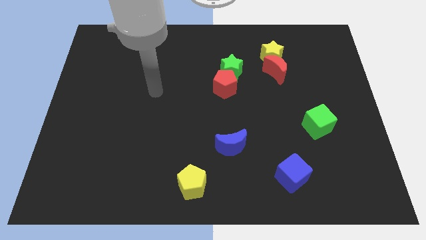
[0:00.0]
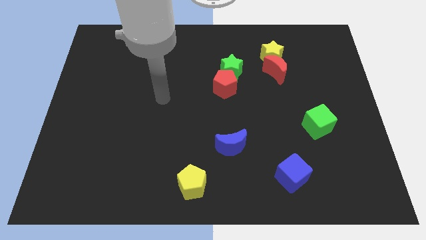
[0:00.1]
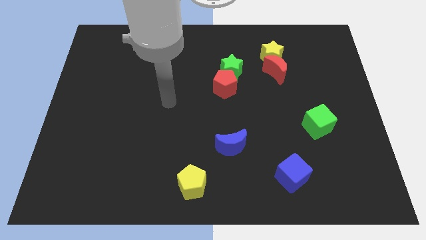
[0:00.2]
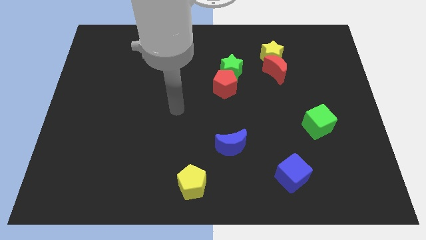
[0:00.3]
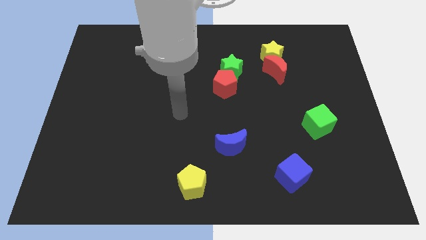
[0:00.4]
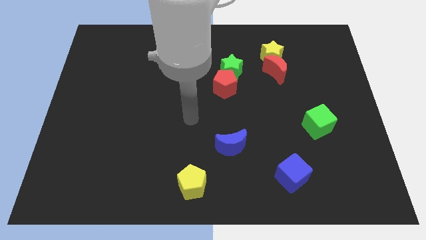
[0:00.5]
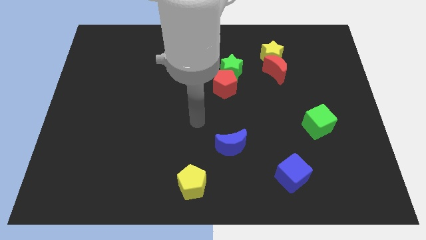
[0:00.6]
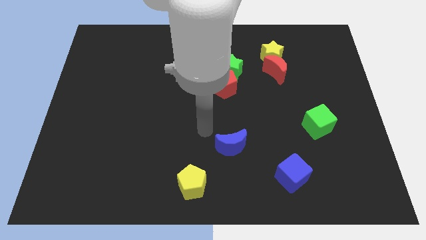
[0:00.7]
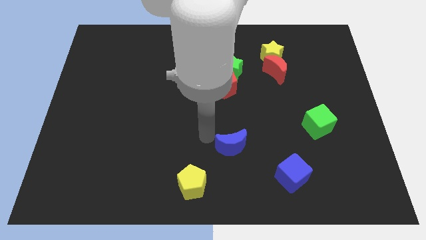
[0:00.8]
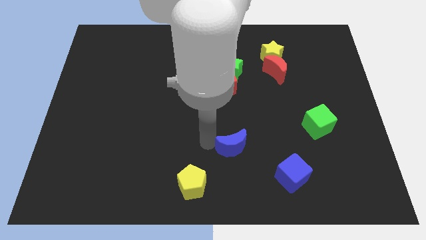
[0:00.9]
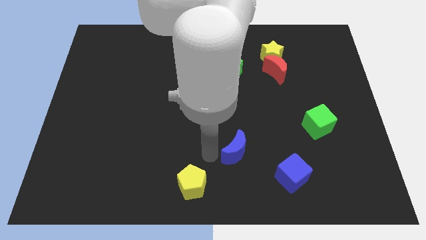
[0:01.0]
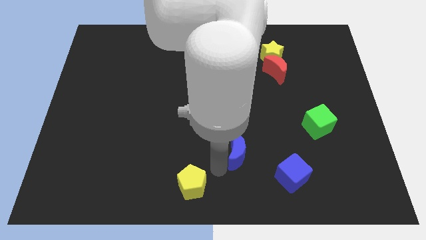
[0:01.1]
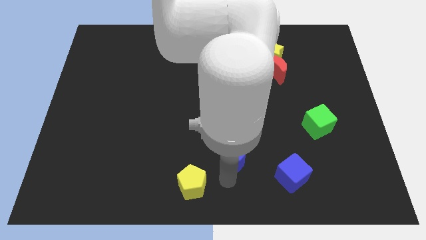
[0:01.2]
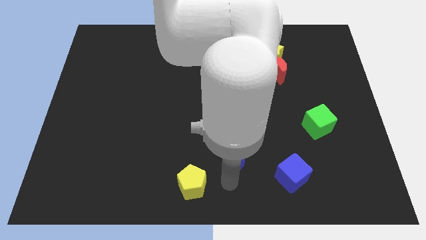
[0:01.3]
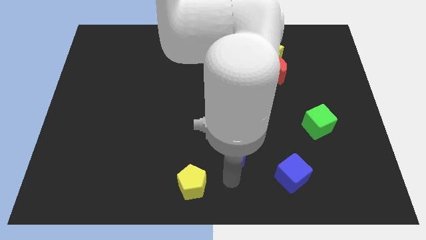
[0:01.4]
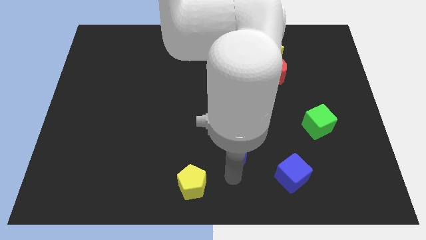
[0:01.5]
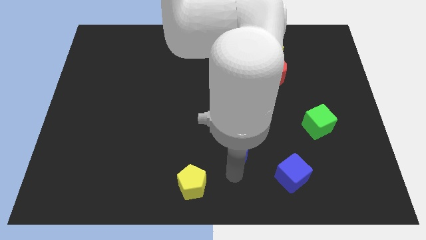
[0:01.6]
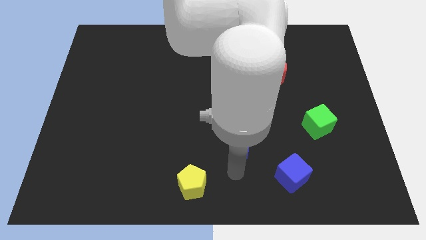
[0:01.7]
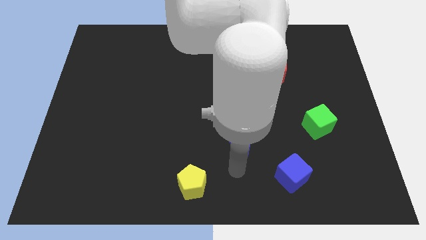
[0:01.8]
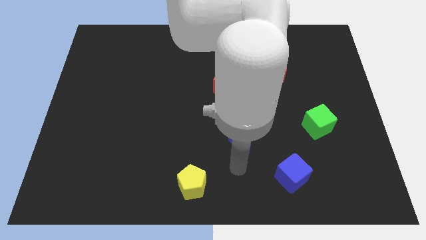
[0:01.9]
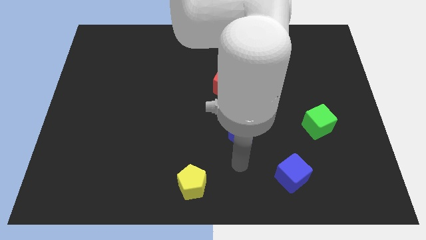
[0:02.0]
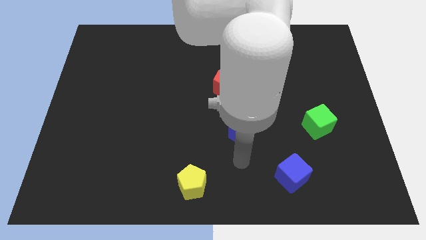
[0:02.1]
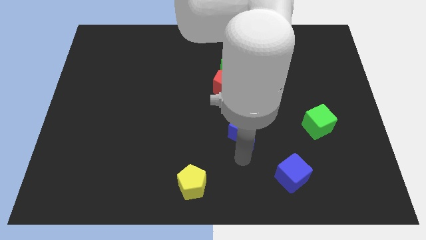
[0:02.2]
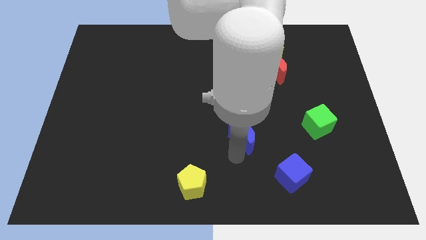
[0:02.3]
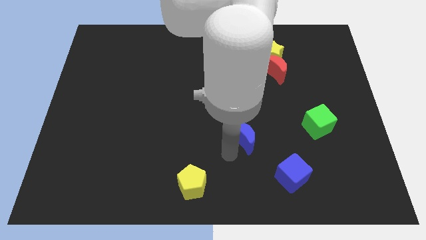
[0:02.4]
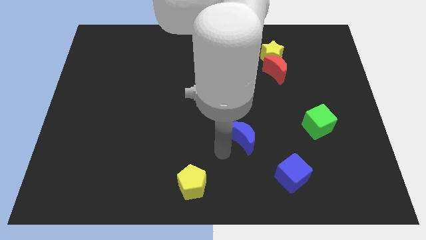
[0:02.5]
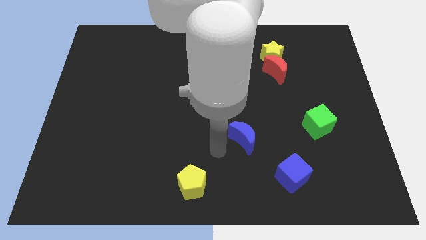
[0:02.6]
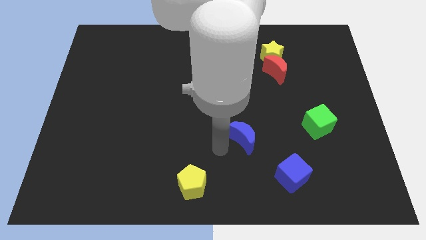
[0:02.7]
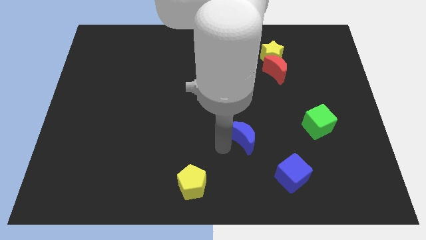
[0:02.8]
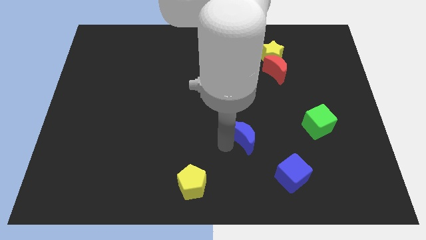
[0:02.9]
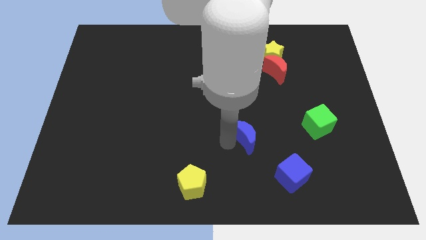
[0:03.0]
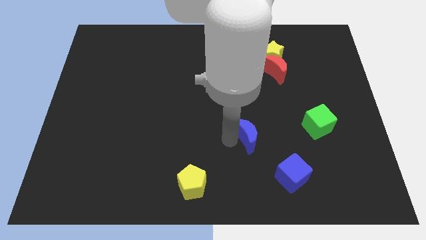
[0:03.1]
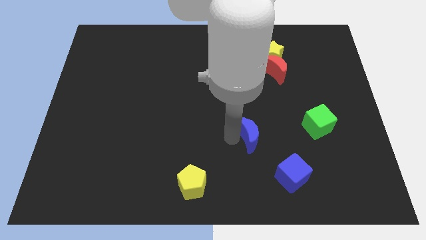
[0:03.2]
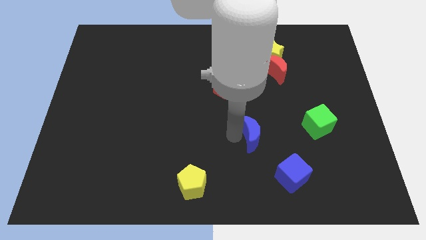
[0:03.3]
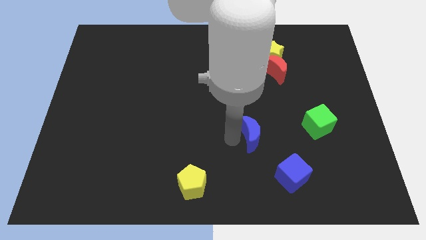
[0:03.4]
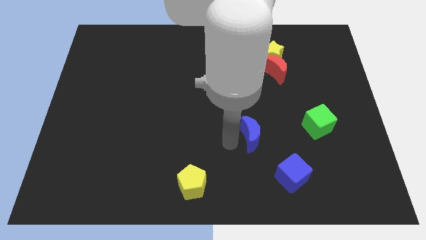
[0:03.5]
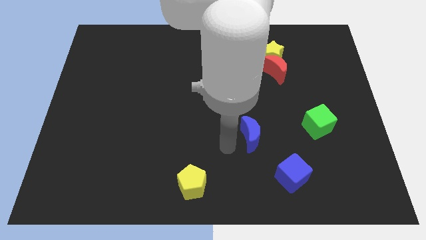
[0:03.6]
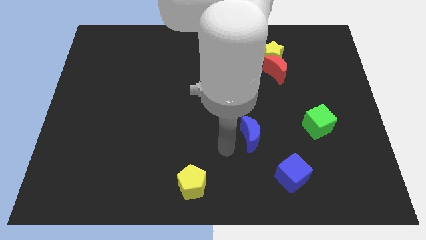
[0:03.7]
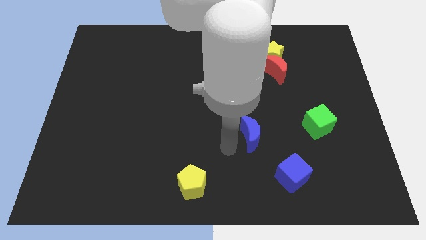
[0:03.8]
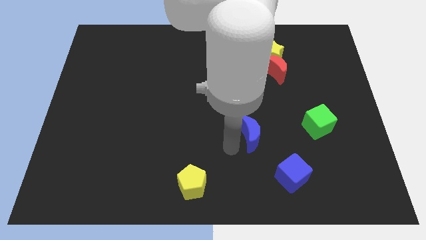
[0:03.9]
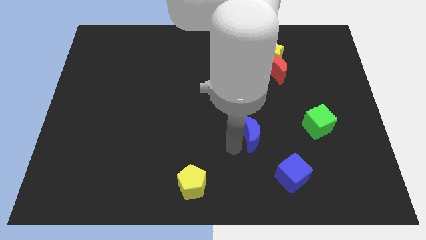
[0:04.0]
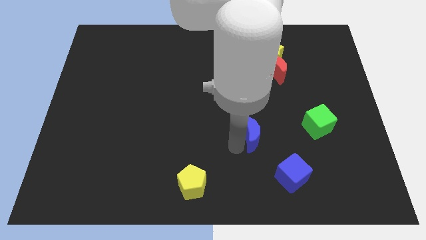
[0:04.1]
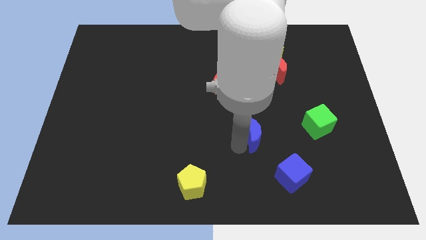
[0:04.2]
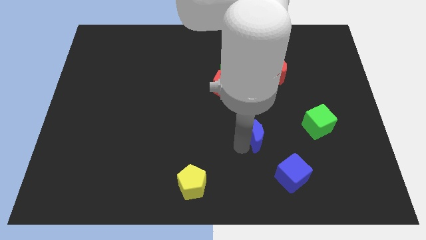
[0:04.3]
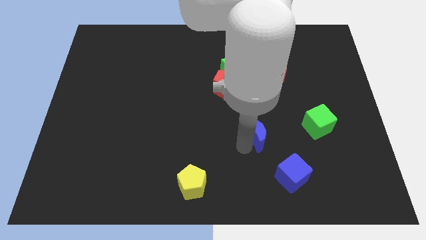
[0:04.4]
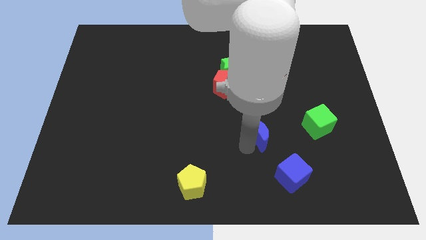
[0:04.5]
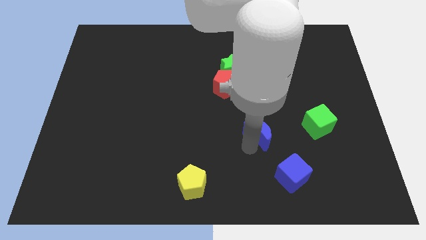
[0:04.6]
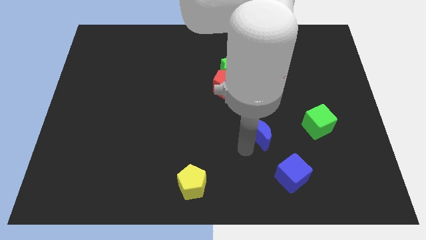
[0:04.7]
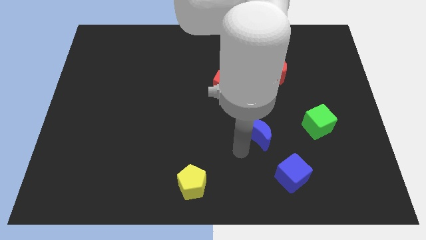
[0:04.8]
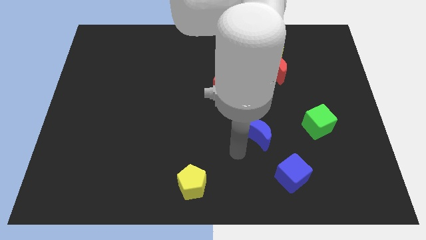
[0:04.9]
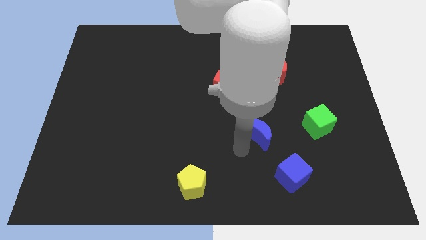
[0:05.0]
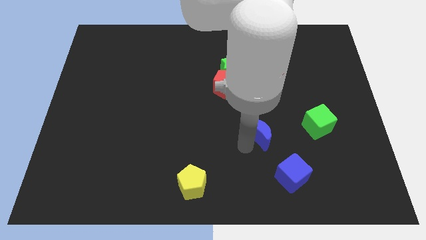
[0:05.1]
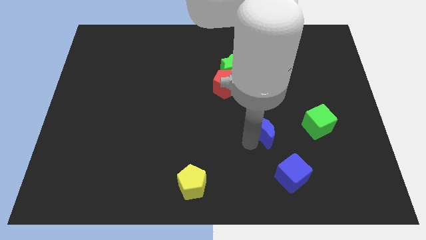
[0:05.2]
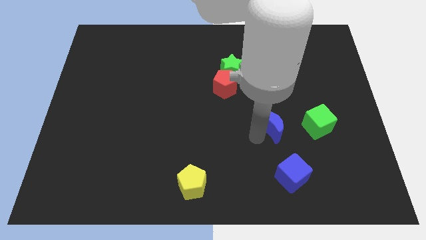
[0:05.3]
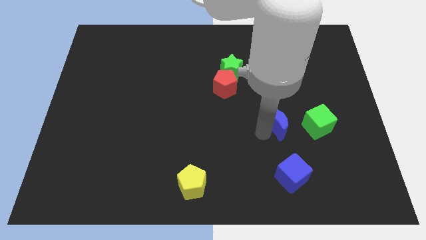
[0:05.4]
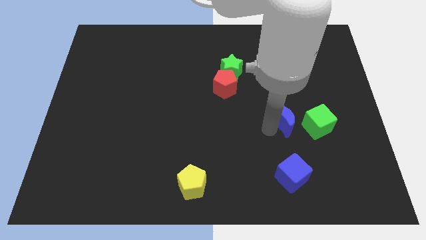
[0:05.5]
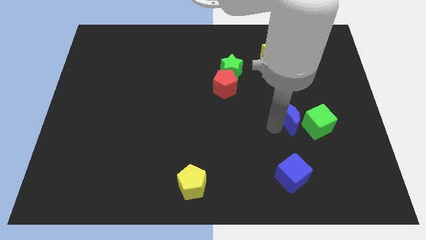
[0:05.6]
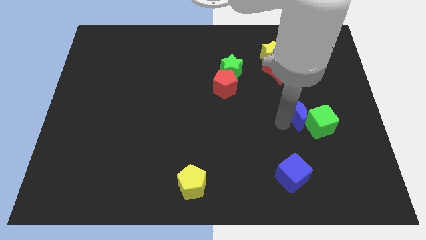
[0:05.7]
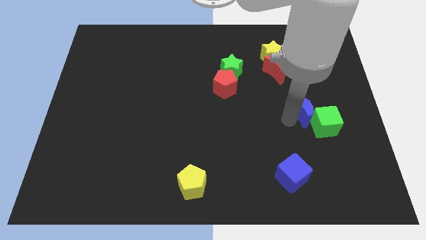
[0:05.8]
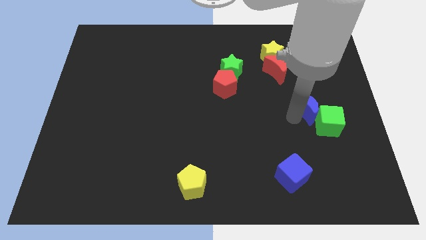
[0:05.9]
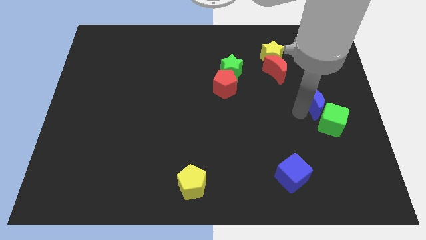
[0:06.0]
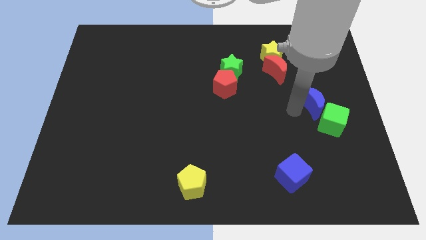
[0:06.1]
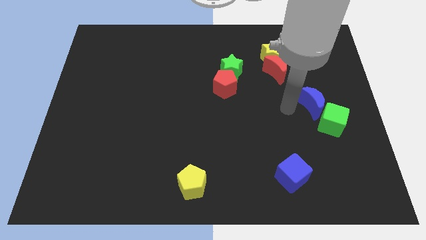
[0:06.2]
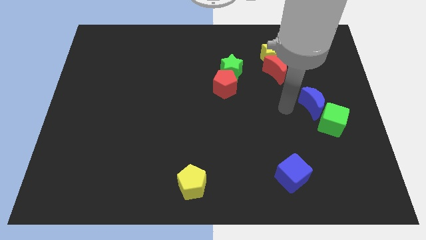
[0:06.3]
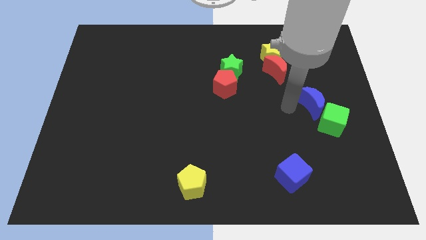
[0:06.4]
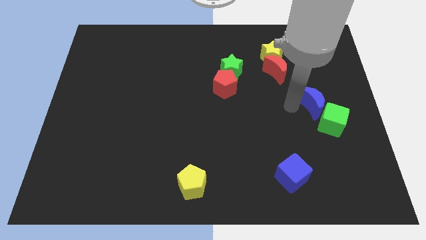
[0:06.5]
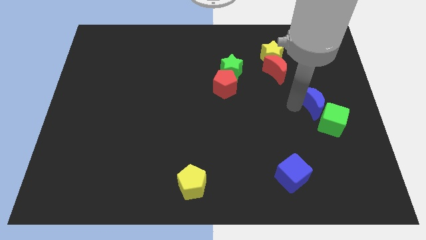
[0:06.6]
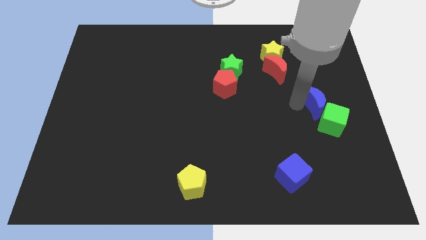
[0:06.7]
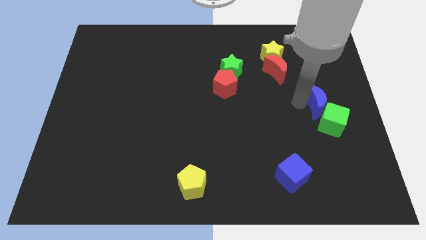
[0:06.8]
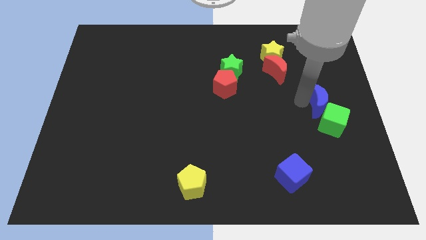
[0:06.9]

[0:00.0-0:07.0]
push the blue moon to the center right

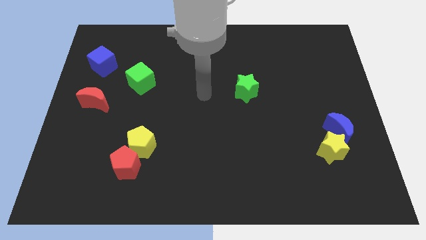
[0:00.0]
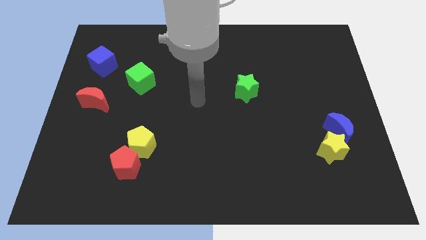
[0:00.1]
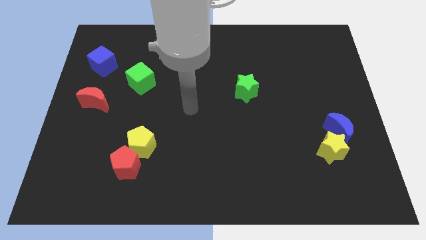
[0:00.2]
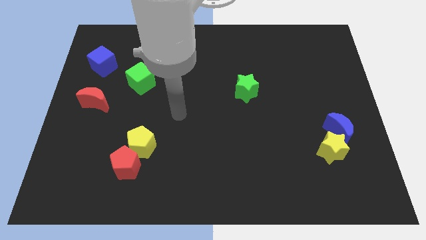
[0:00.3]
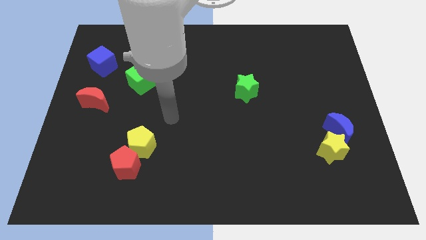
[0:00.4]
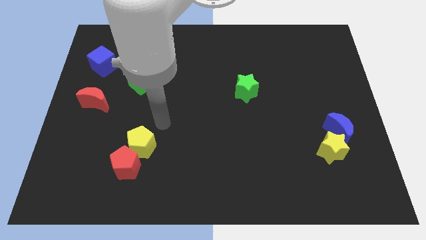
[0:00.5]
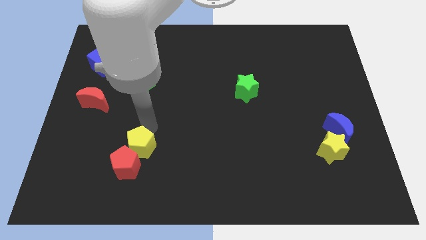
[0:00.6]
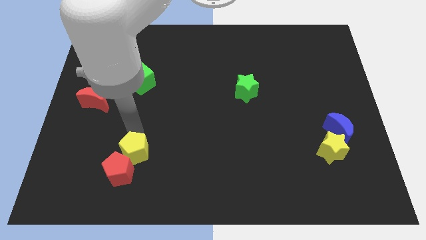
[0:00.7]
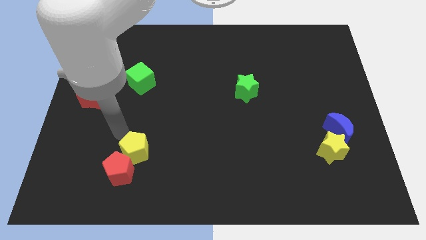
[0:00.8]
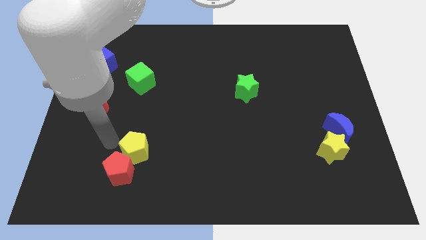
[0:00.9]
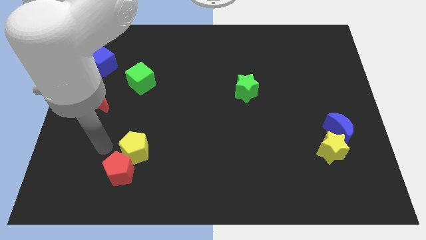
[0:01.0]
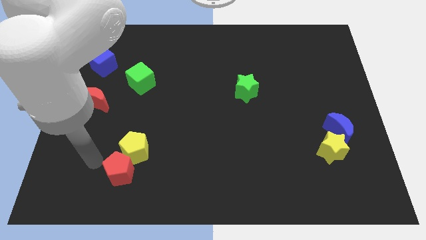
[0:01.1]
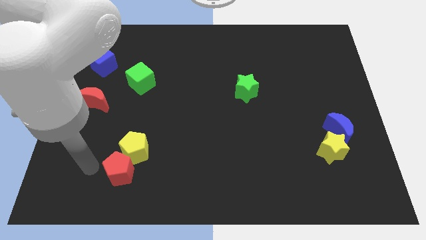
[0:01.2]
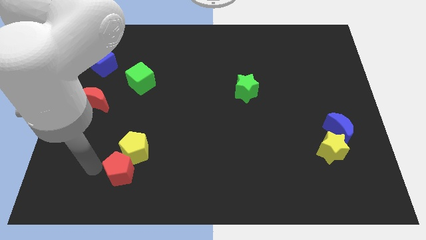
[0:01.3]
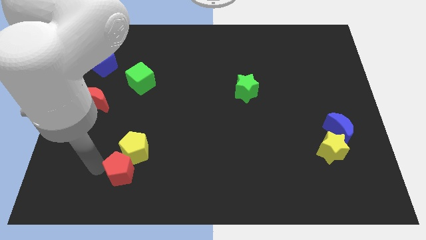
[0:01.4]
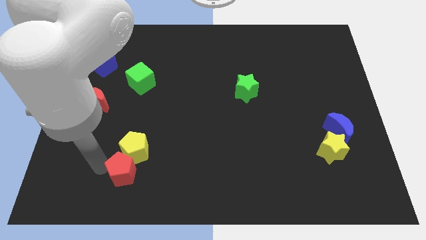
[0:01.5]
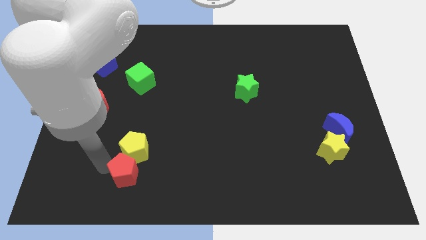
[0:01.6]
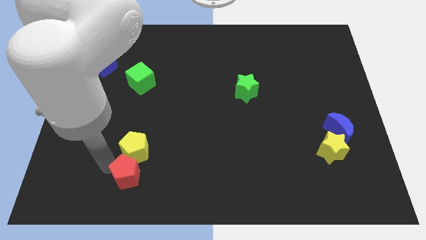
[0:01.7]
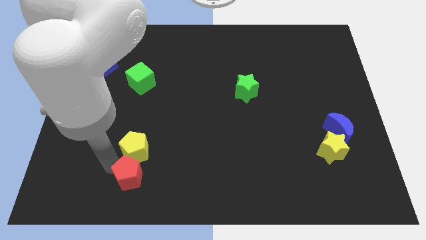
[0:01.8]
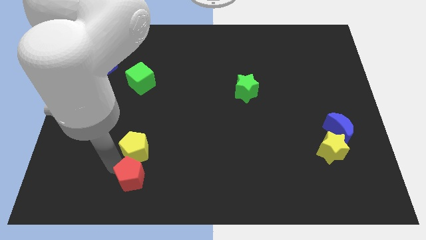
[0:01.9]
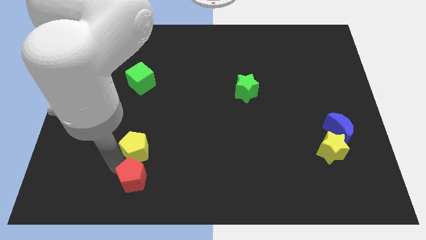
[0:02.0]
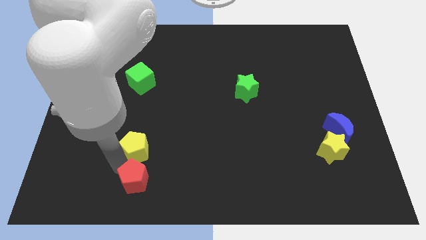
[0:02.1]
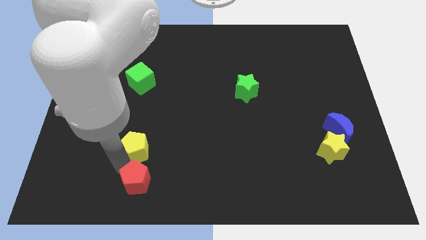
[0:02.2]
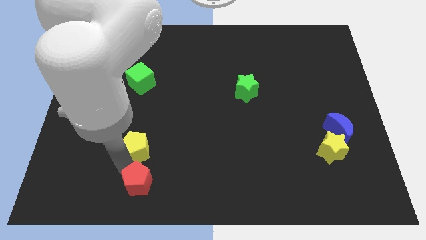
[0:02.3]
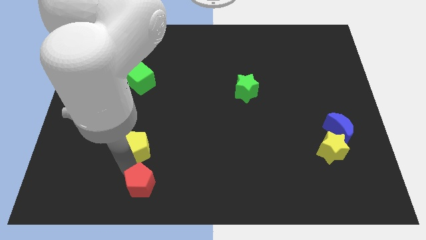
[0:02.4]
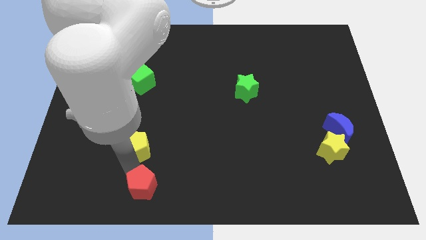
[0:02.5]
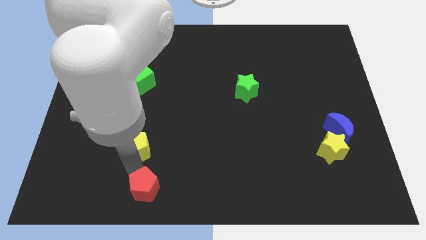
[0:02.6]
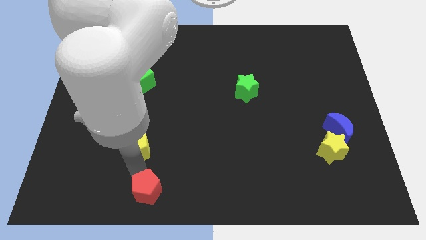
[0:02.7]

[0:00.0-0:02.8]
put the red pentagon to the bottom
